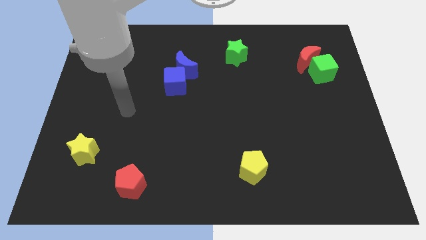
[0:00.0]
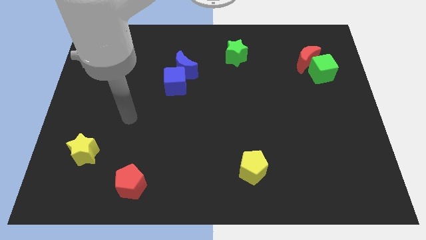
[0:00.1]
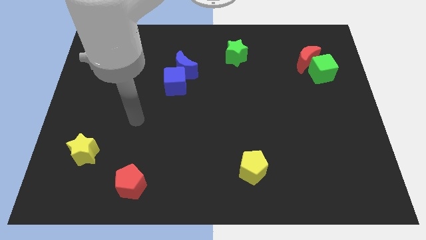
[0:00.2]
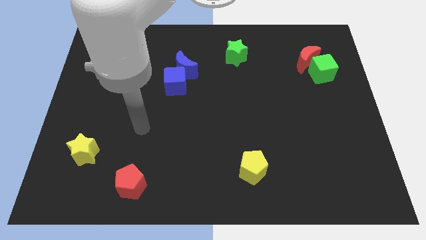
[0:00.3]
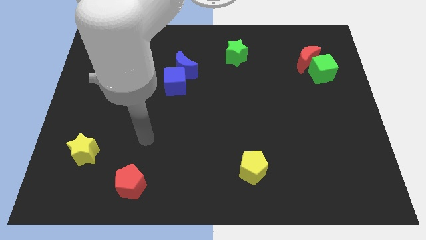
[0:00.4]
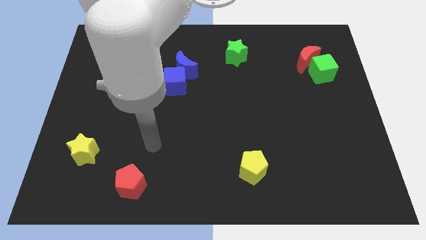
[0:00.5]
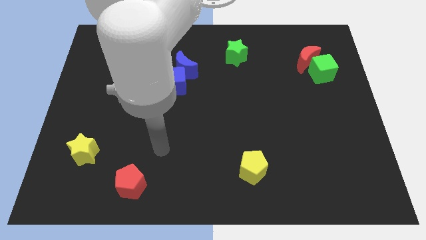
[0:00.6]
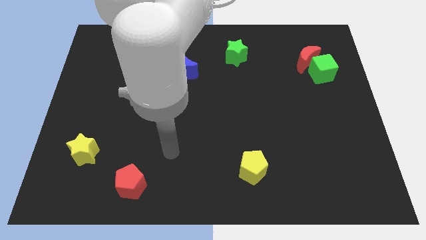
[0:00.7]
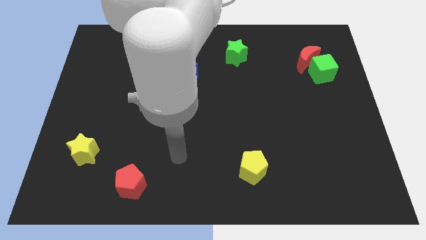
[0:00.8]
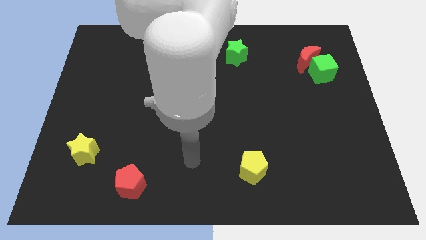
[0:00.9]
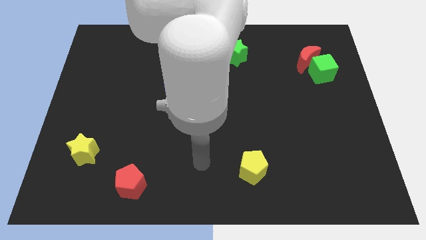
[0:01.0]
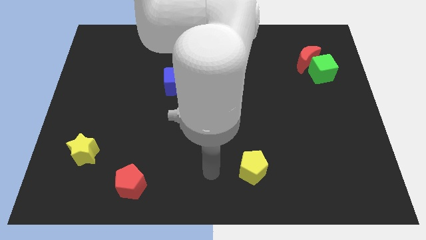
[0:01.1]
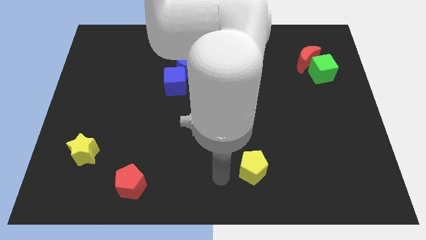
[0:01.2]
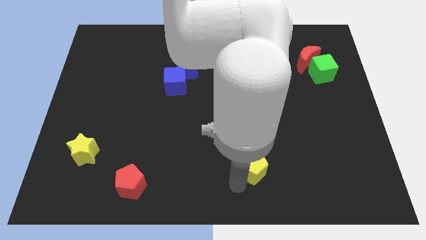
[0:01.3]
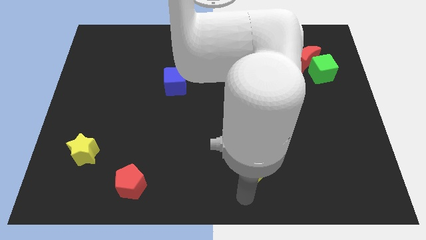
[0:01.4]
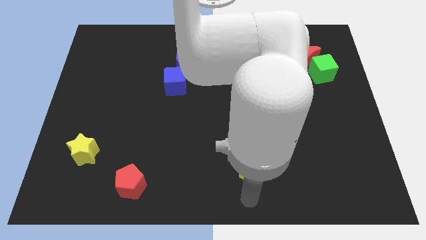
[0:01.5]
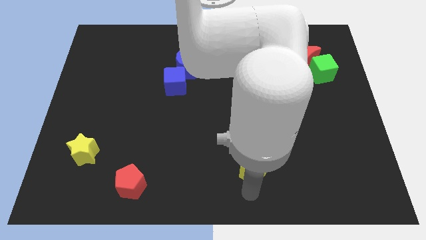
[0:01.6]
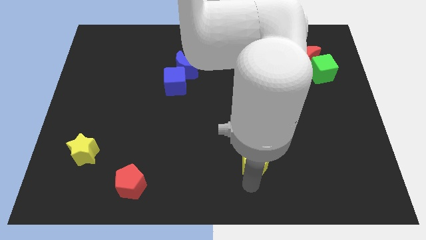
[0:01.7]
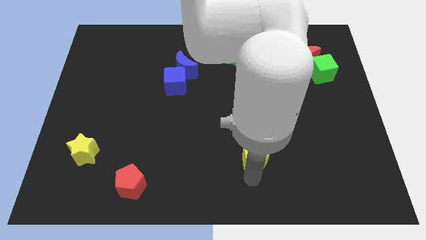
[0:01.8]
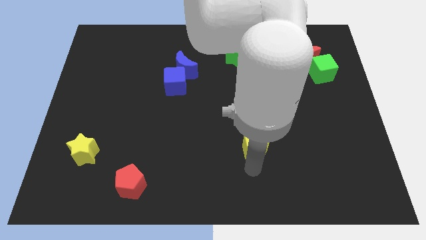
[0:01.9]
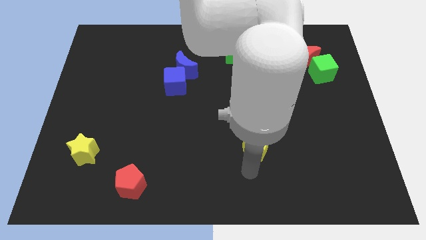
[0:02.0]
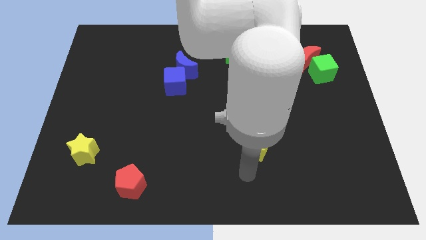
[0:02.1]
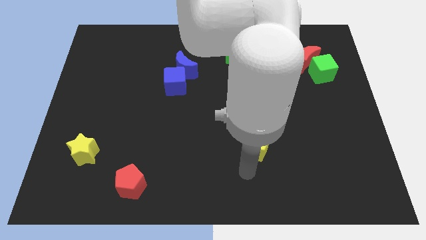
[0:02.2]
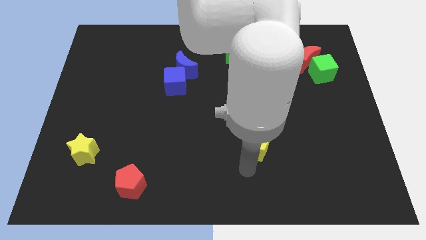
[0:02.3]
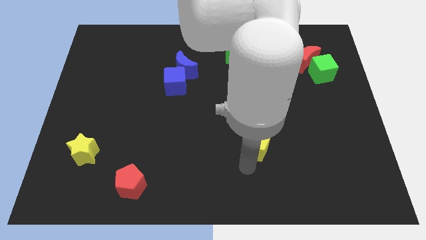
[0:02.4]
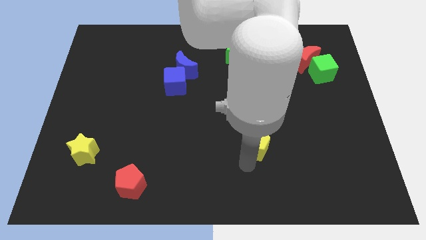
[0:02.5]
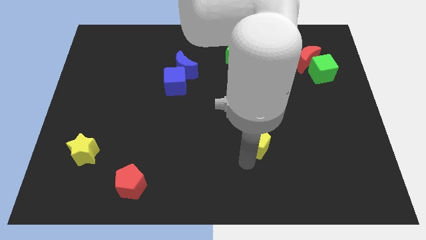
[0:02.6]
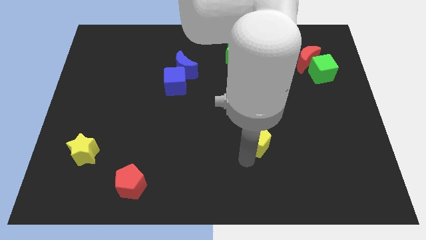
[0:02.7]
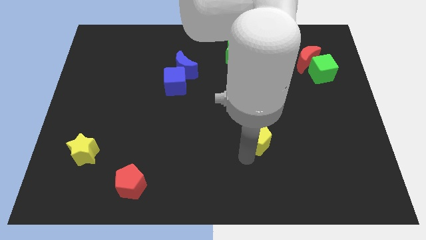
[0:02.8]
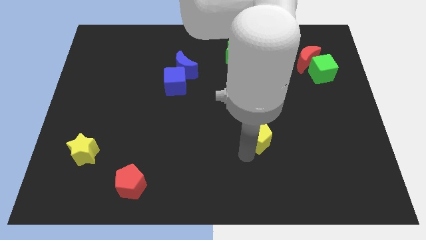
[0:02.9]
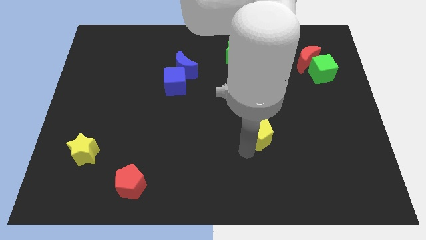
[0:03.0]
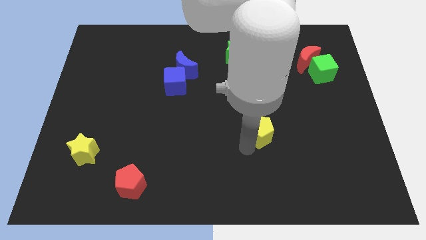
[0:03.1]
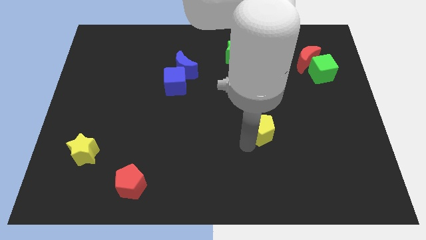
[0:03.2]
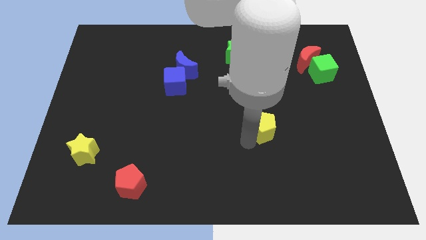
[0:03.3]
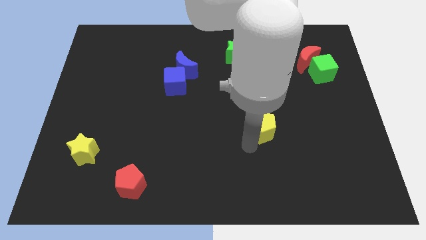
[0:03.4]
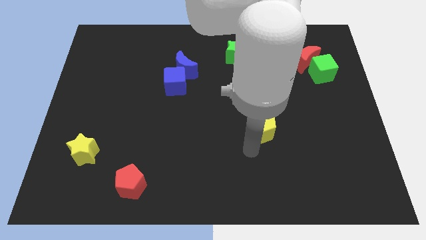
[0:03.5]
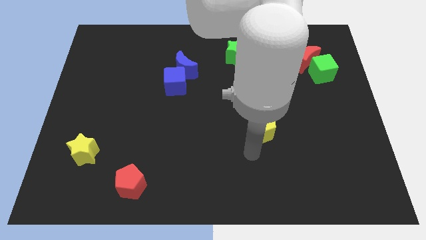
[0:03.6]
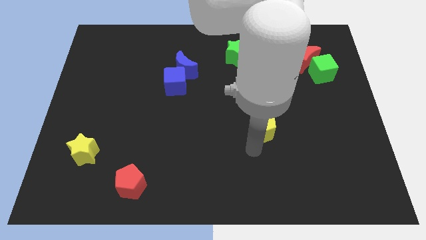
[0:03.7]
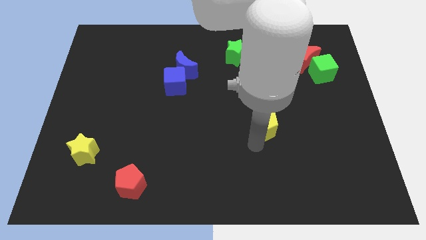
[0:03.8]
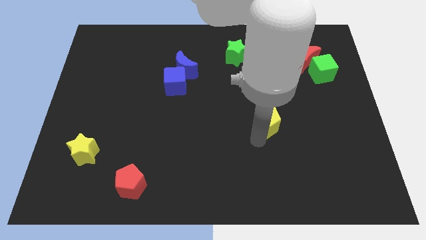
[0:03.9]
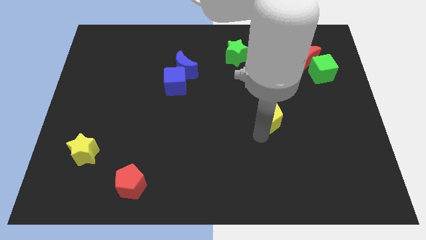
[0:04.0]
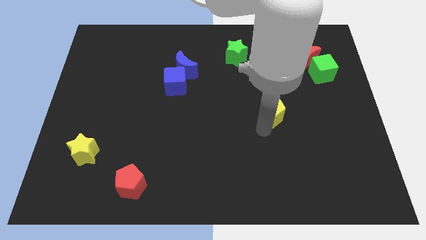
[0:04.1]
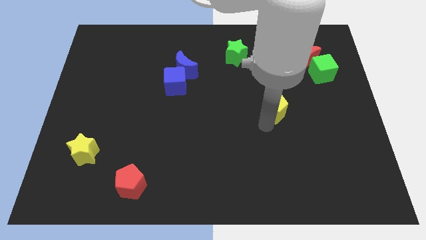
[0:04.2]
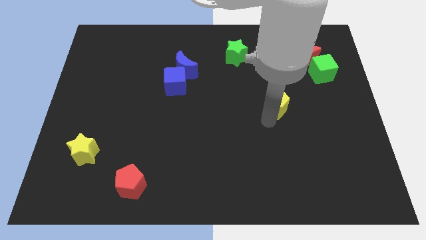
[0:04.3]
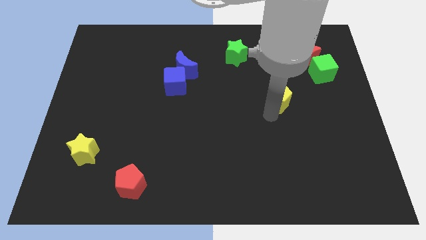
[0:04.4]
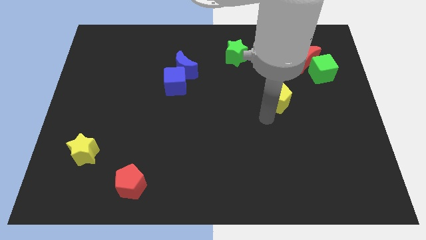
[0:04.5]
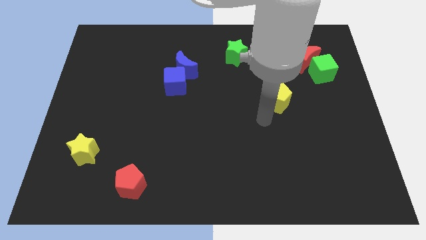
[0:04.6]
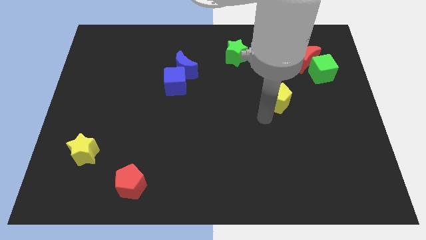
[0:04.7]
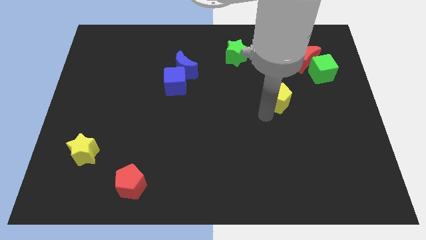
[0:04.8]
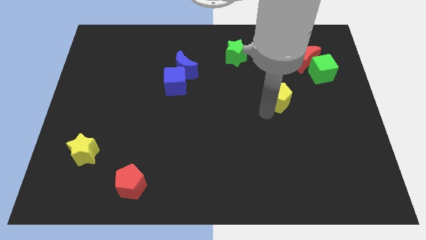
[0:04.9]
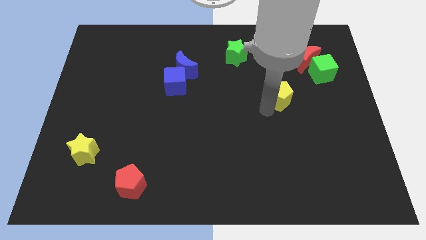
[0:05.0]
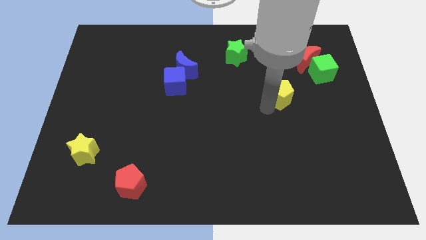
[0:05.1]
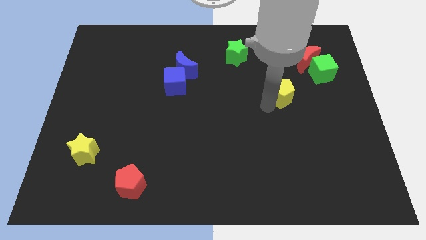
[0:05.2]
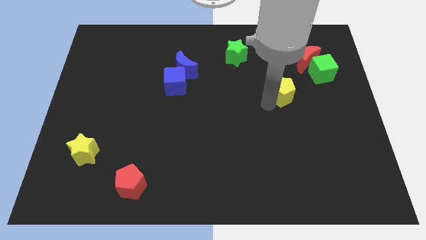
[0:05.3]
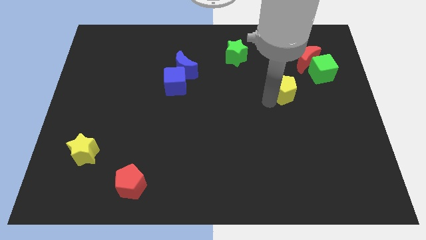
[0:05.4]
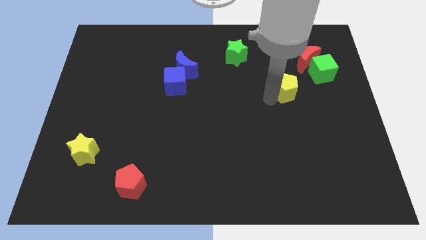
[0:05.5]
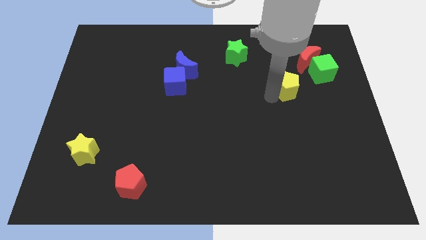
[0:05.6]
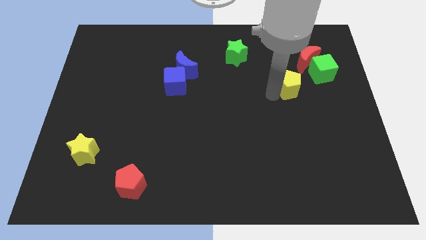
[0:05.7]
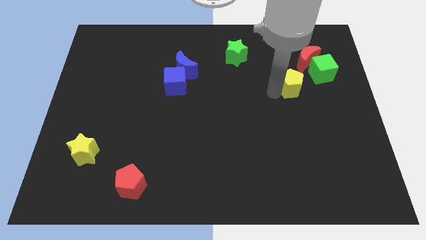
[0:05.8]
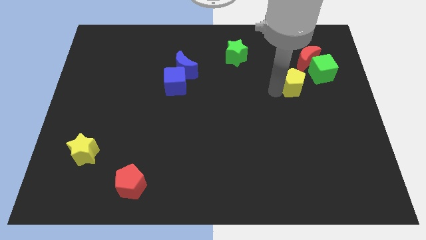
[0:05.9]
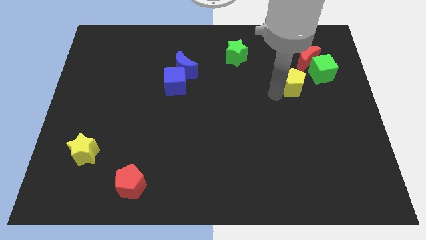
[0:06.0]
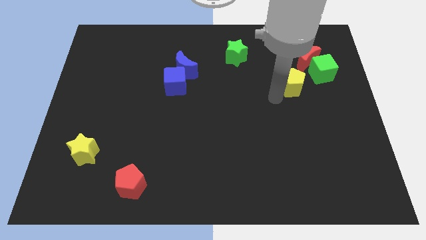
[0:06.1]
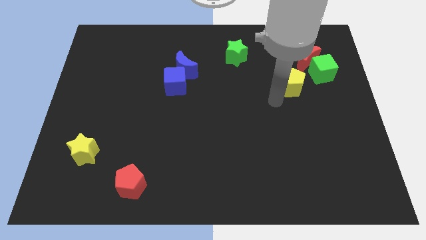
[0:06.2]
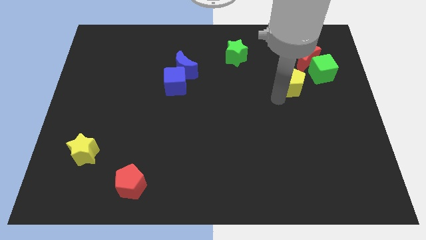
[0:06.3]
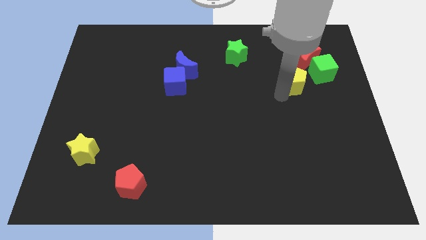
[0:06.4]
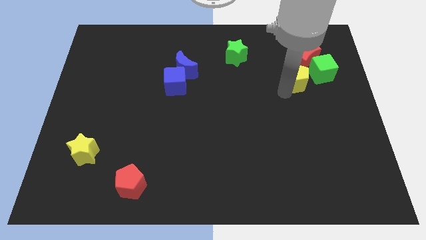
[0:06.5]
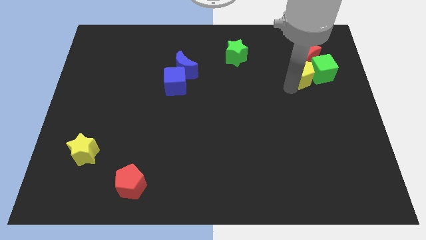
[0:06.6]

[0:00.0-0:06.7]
slide the yellow pentagon to the red moon
